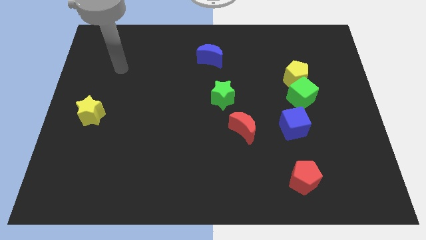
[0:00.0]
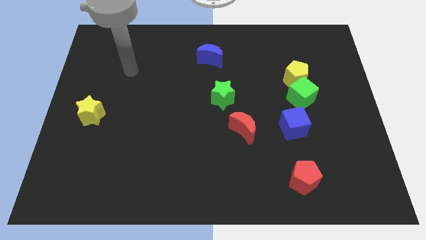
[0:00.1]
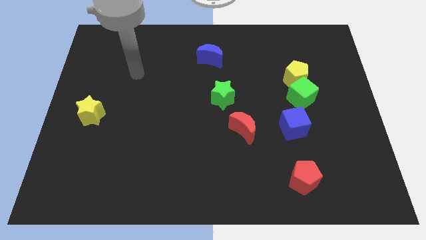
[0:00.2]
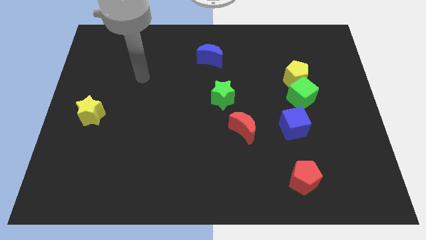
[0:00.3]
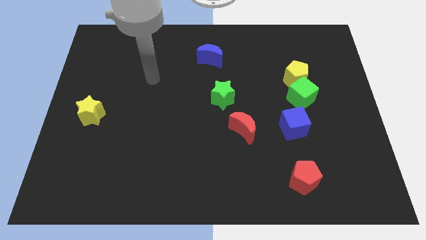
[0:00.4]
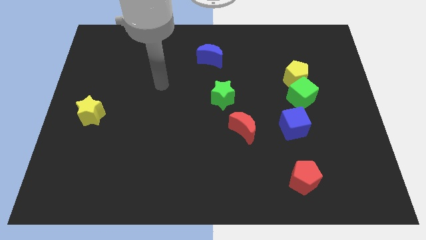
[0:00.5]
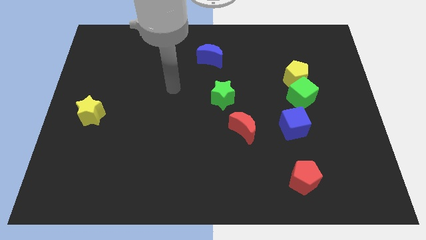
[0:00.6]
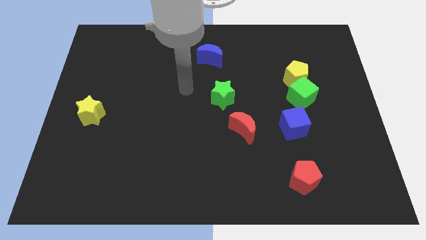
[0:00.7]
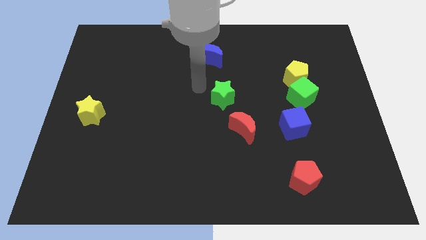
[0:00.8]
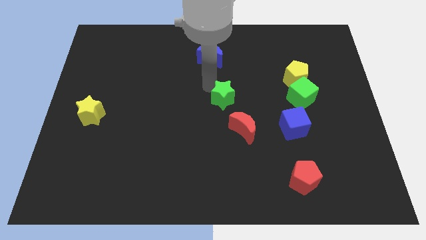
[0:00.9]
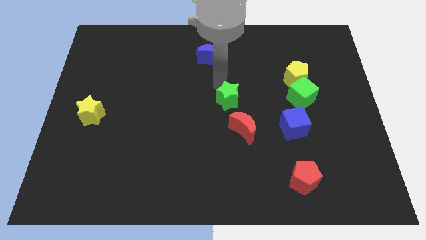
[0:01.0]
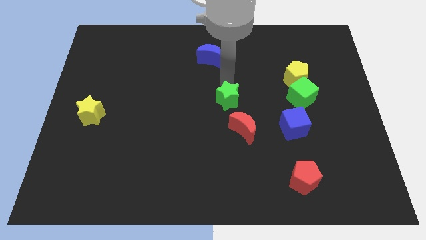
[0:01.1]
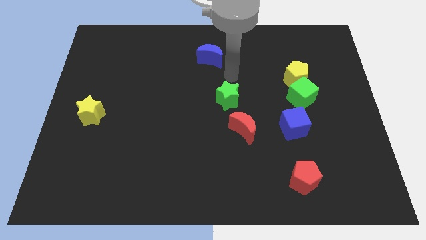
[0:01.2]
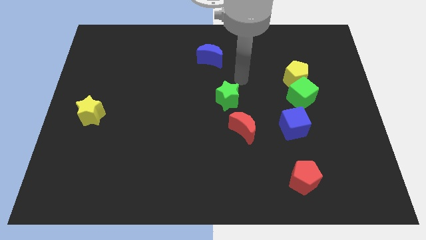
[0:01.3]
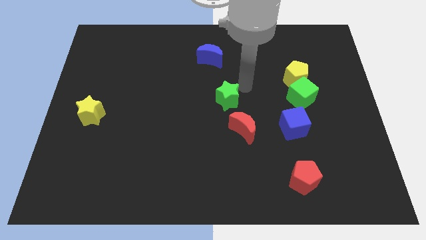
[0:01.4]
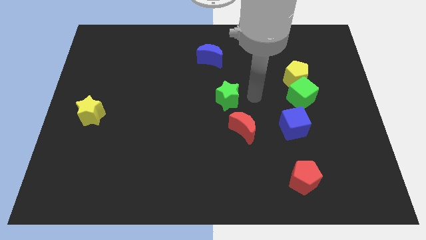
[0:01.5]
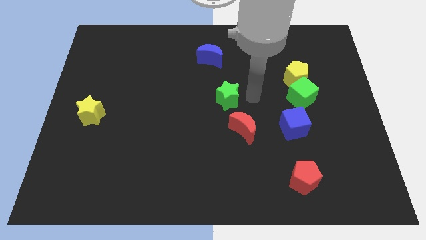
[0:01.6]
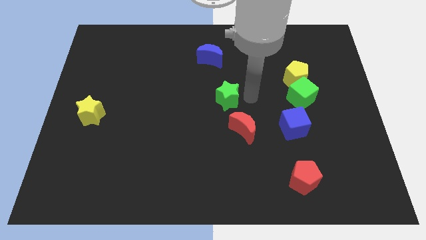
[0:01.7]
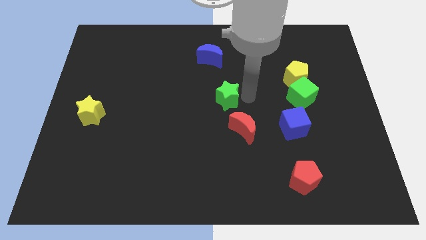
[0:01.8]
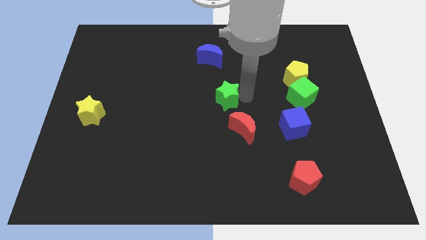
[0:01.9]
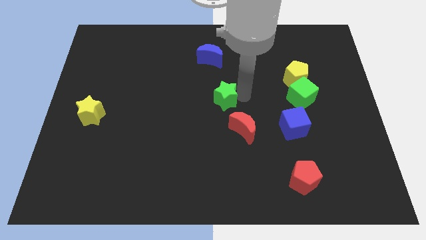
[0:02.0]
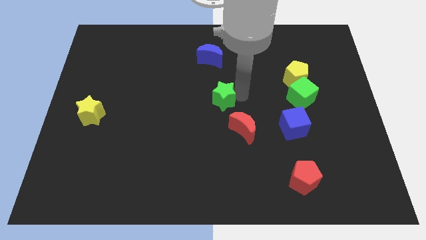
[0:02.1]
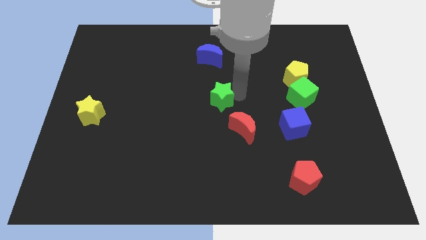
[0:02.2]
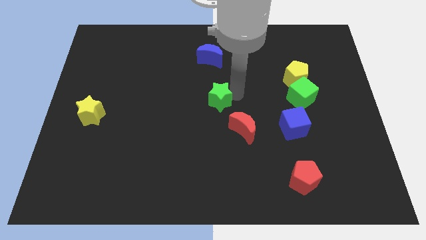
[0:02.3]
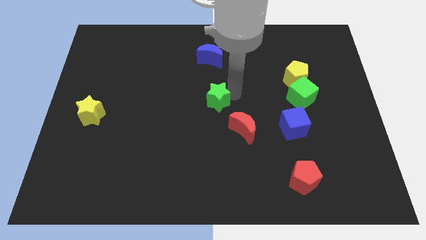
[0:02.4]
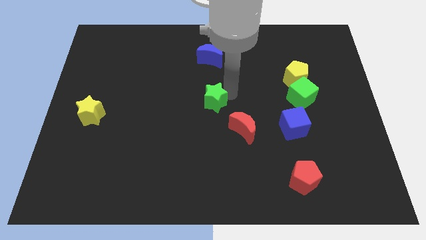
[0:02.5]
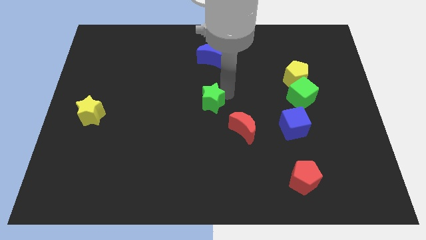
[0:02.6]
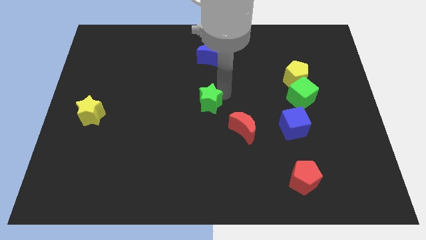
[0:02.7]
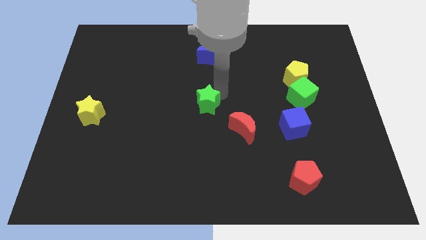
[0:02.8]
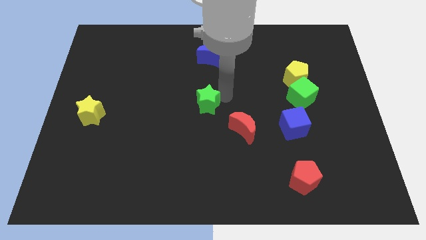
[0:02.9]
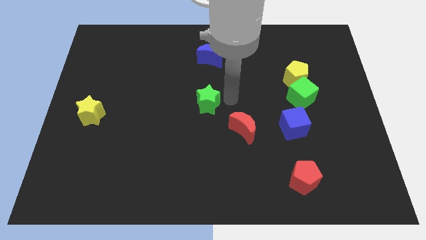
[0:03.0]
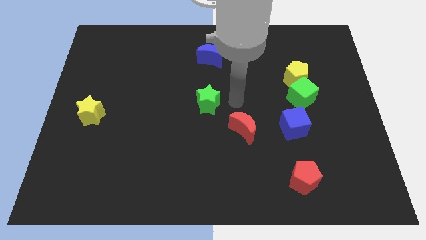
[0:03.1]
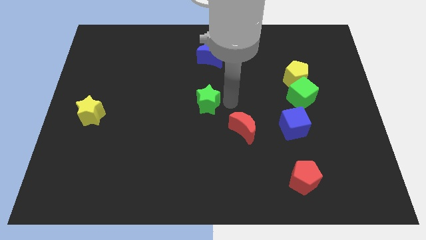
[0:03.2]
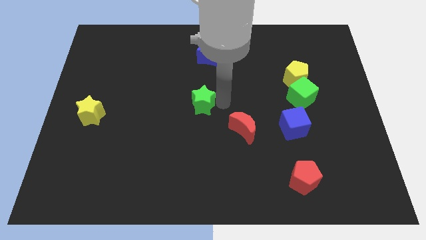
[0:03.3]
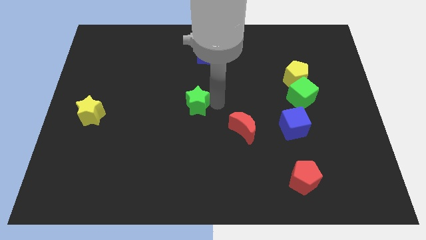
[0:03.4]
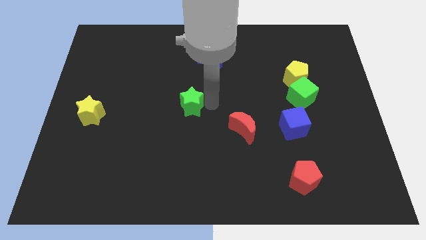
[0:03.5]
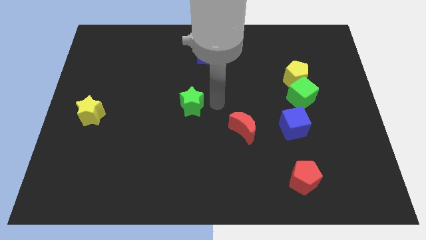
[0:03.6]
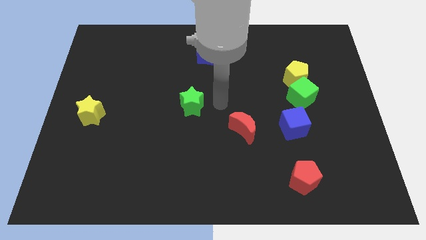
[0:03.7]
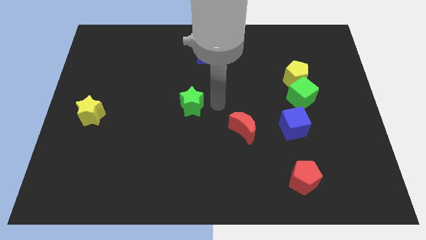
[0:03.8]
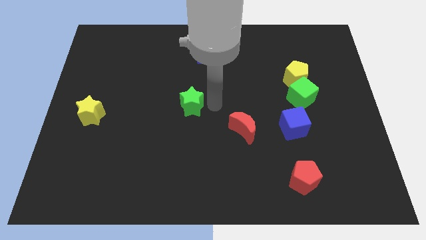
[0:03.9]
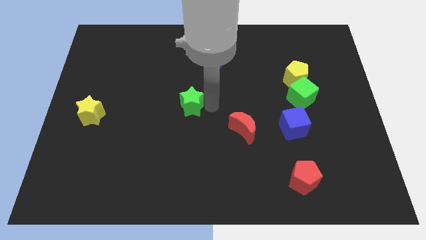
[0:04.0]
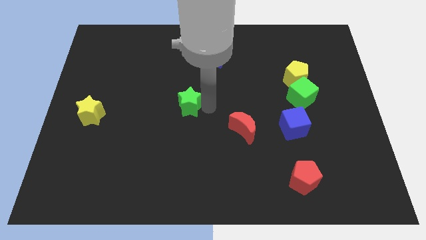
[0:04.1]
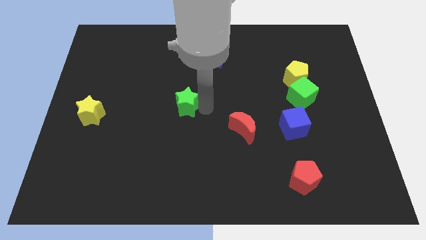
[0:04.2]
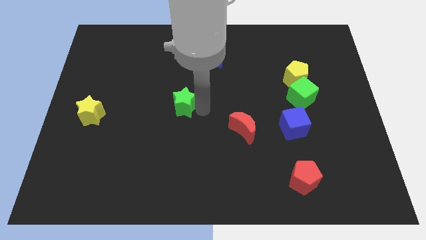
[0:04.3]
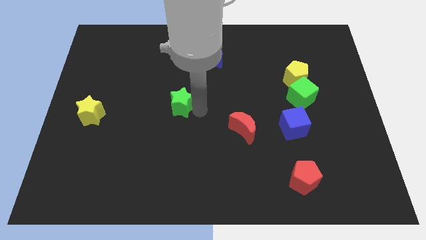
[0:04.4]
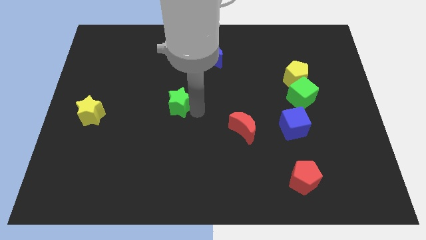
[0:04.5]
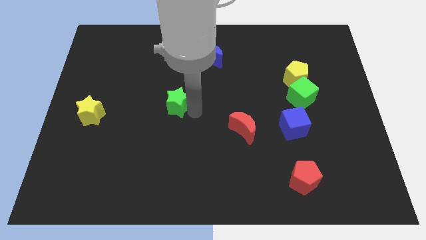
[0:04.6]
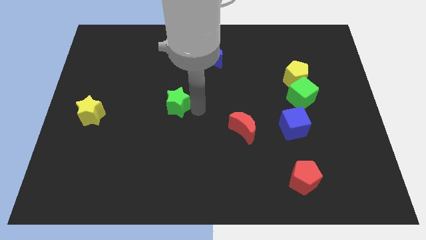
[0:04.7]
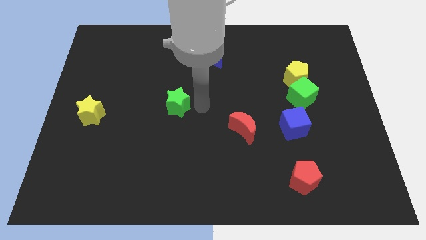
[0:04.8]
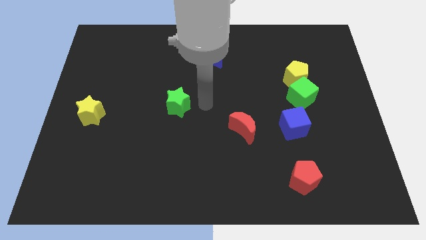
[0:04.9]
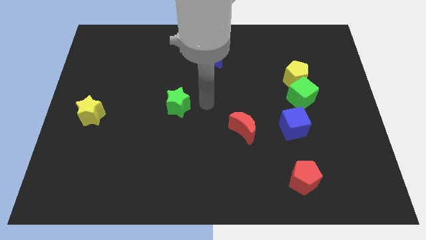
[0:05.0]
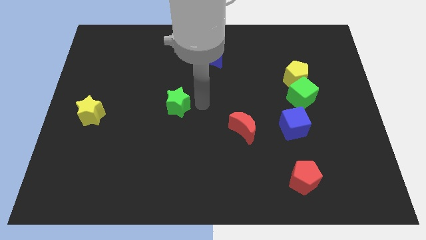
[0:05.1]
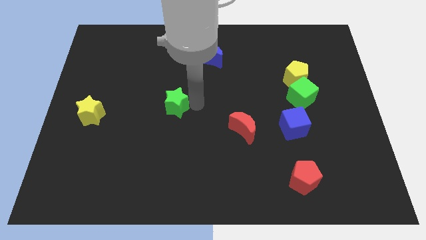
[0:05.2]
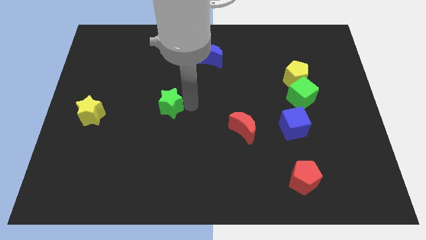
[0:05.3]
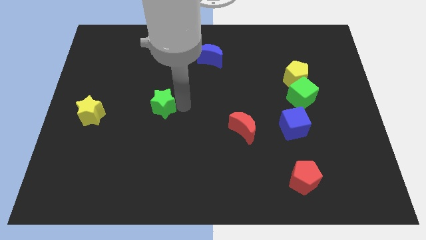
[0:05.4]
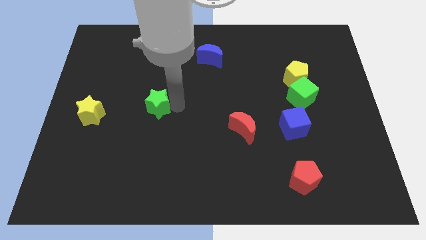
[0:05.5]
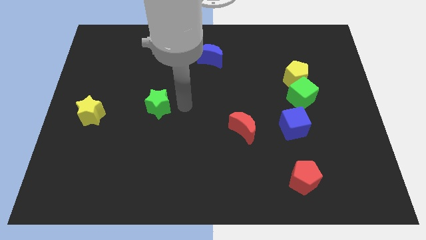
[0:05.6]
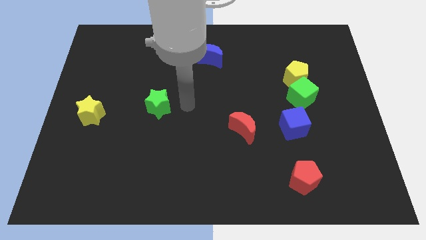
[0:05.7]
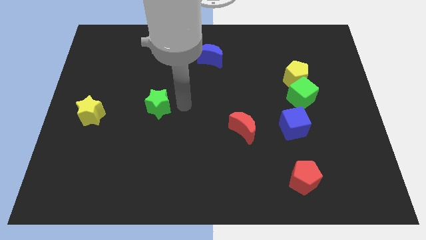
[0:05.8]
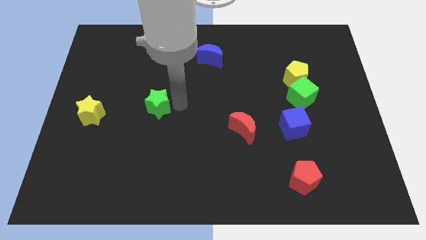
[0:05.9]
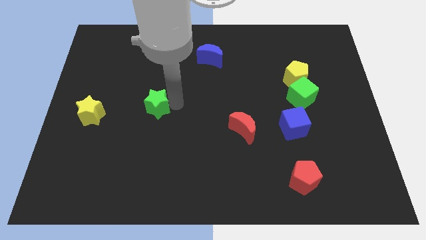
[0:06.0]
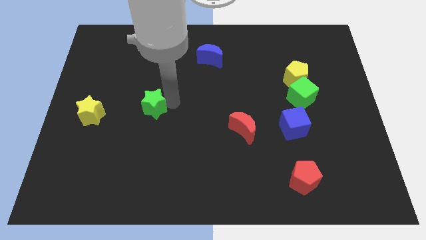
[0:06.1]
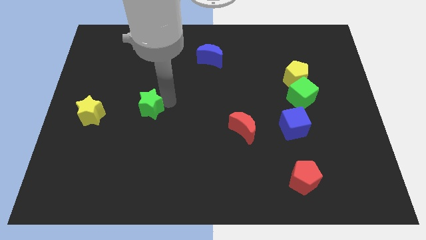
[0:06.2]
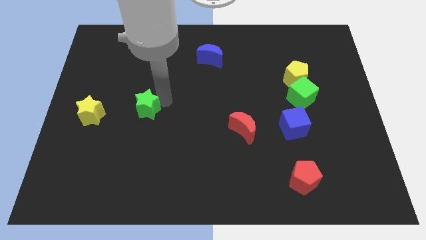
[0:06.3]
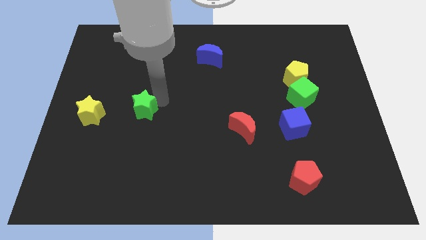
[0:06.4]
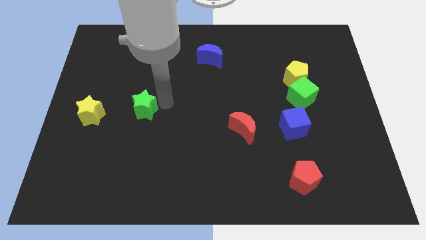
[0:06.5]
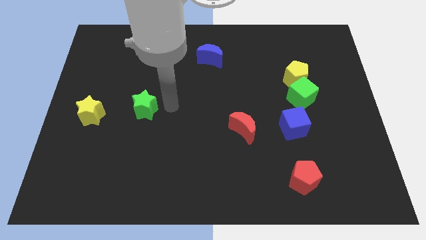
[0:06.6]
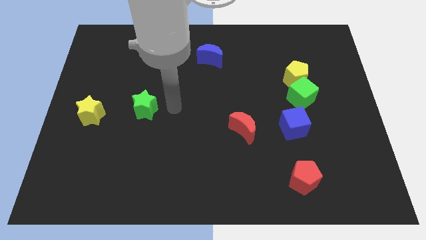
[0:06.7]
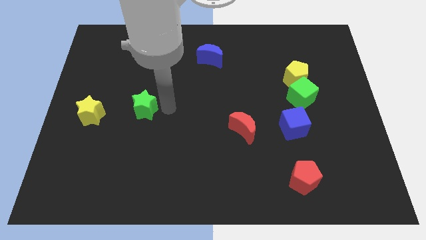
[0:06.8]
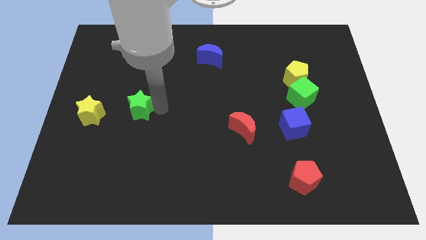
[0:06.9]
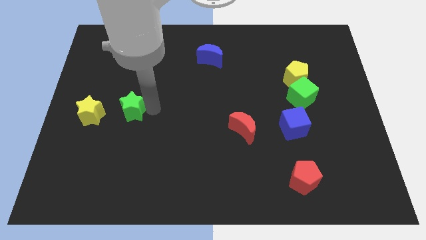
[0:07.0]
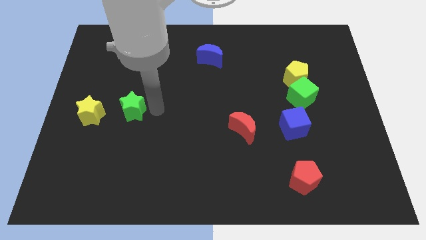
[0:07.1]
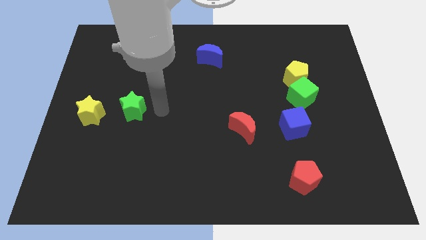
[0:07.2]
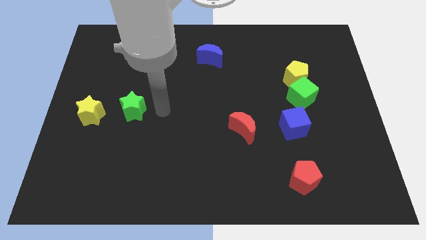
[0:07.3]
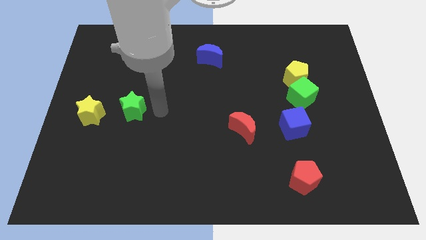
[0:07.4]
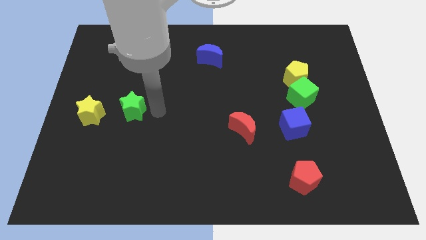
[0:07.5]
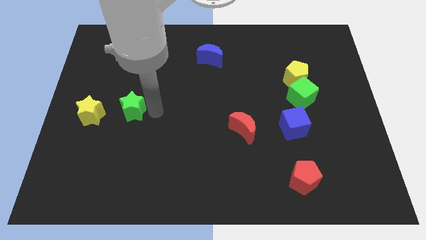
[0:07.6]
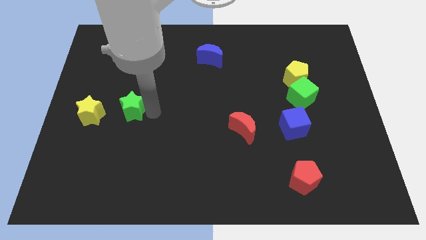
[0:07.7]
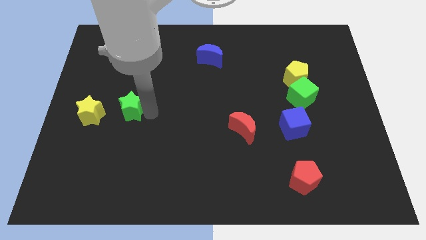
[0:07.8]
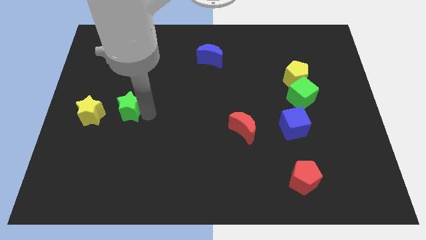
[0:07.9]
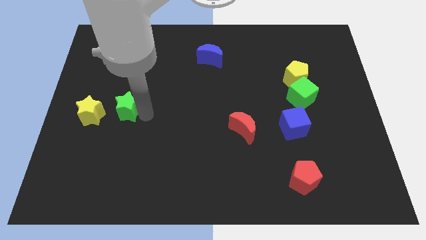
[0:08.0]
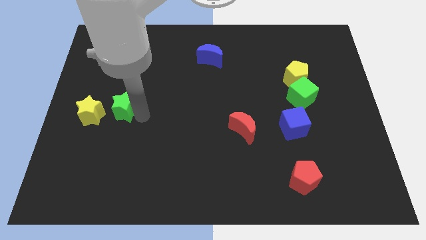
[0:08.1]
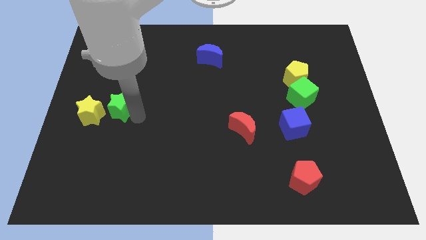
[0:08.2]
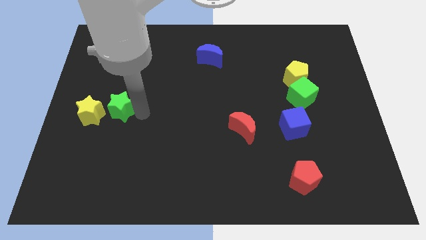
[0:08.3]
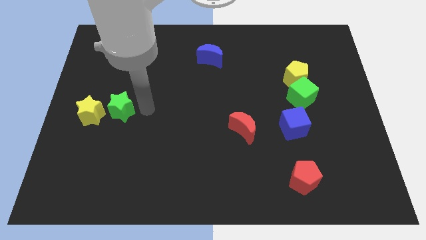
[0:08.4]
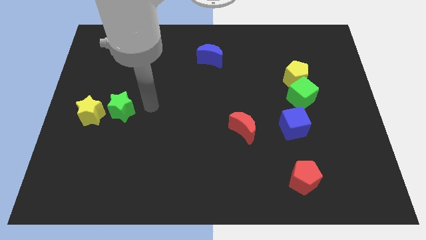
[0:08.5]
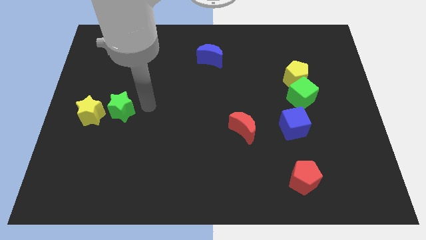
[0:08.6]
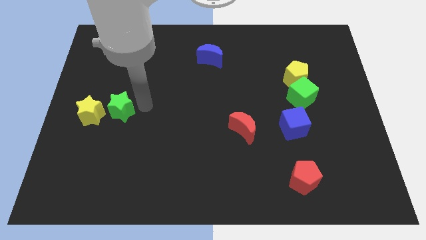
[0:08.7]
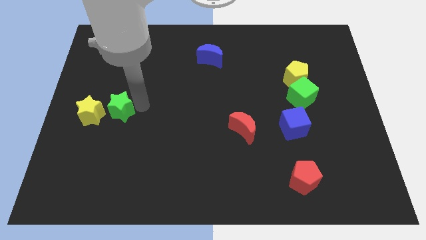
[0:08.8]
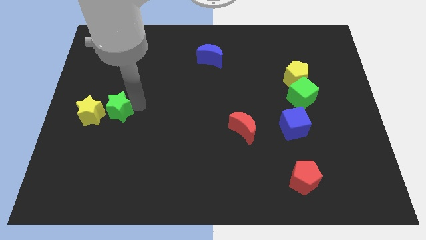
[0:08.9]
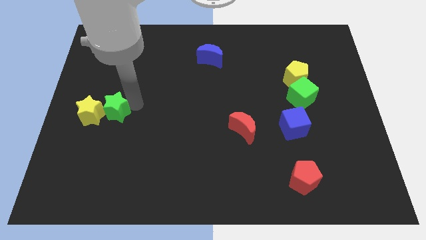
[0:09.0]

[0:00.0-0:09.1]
put the green star towards the yellow star
